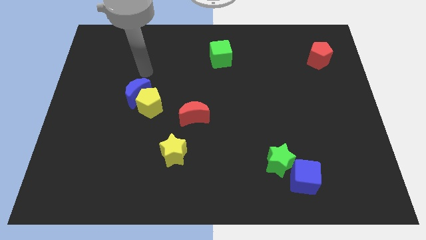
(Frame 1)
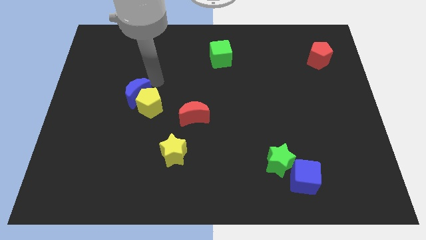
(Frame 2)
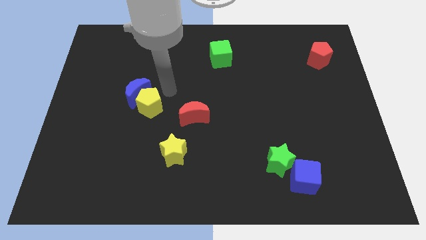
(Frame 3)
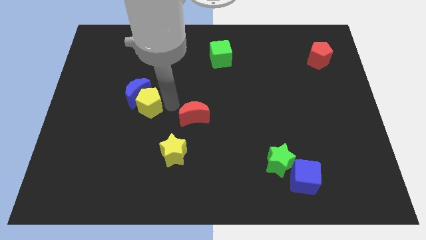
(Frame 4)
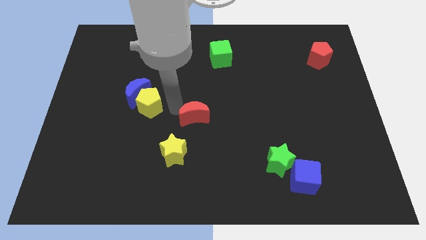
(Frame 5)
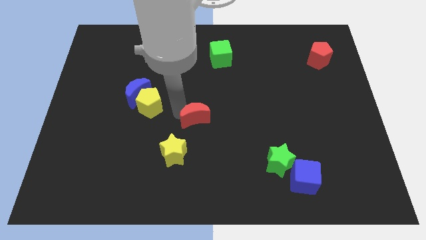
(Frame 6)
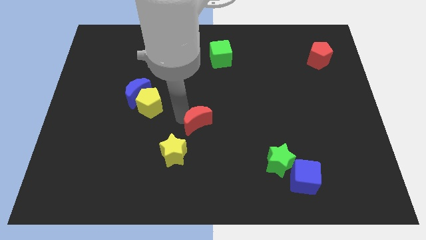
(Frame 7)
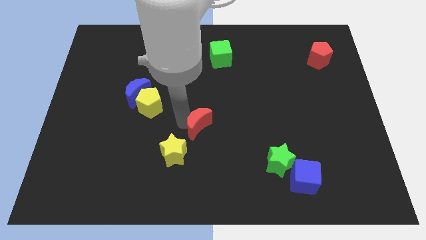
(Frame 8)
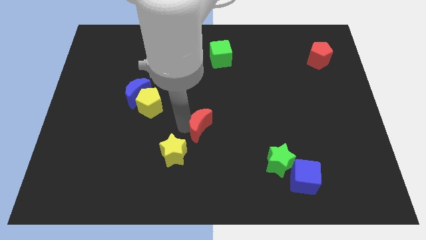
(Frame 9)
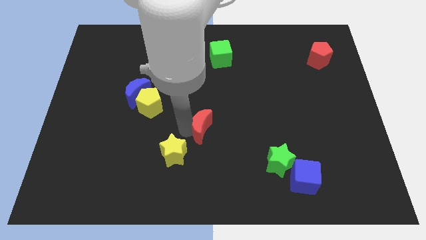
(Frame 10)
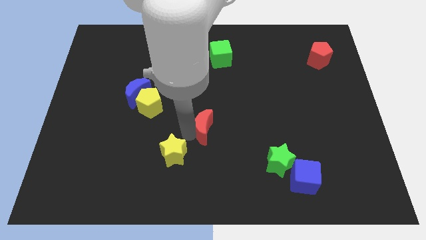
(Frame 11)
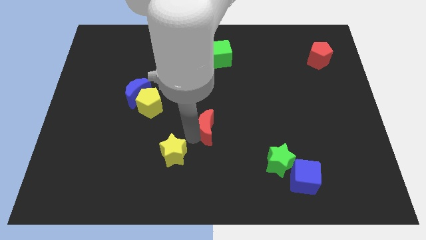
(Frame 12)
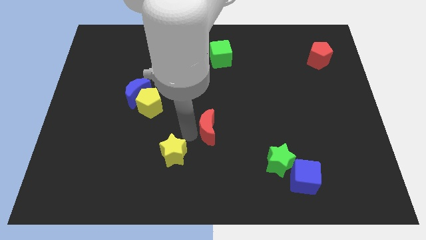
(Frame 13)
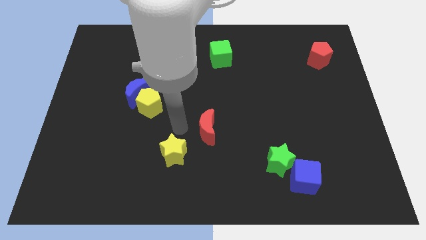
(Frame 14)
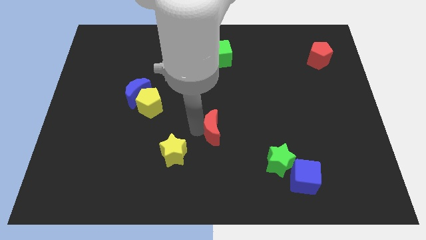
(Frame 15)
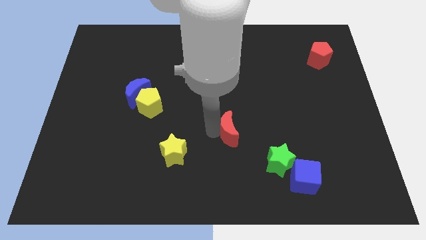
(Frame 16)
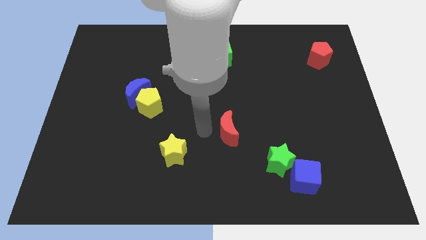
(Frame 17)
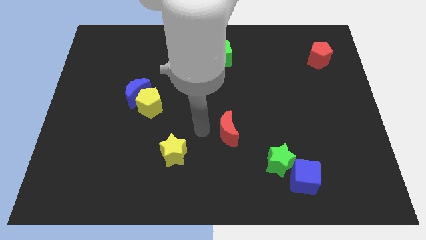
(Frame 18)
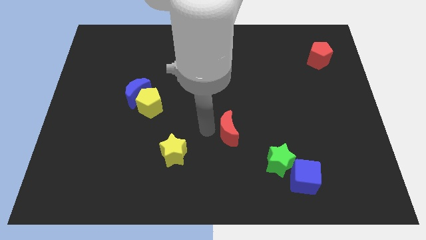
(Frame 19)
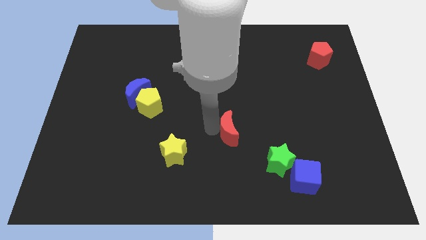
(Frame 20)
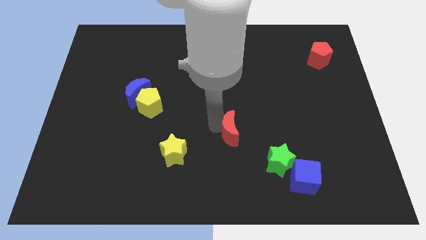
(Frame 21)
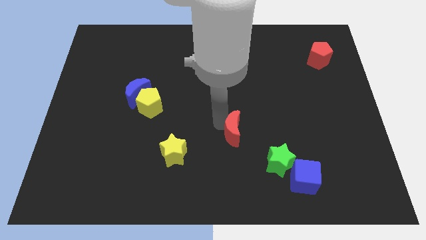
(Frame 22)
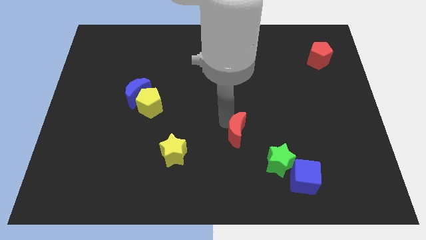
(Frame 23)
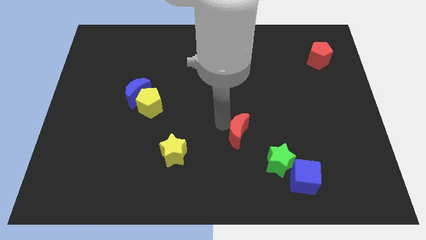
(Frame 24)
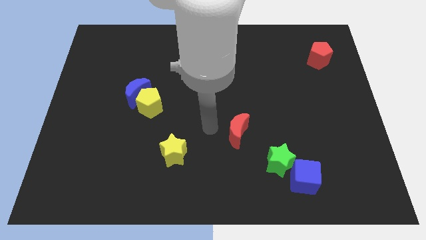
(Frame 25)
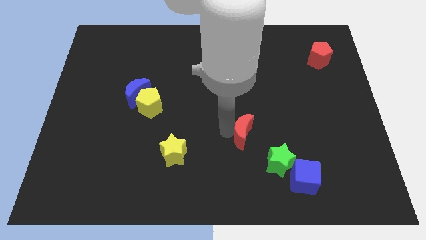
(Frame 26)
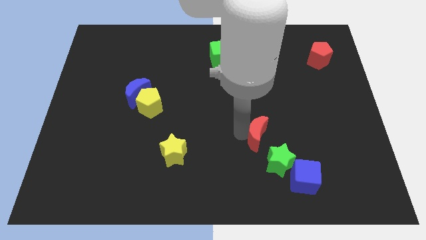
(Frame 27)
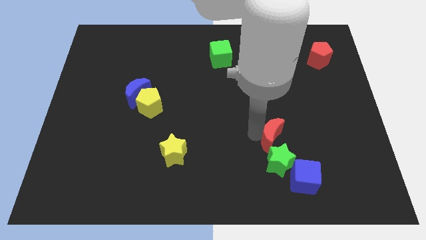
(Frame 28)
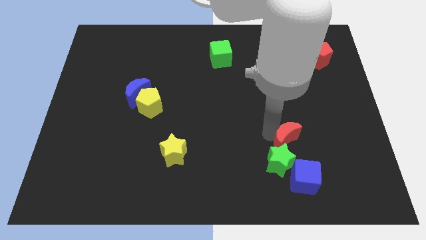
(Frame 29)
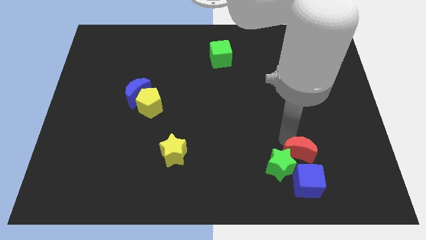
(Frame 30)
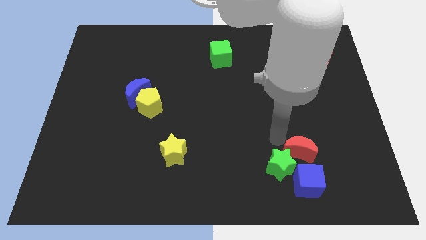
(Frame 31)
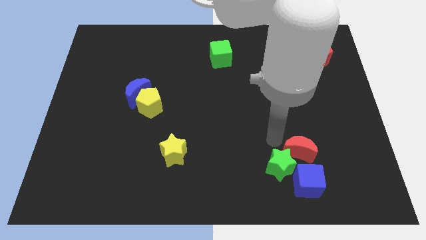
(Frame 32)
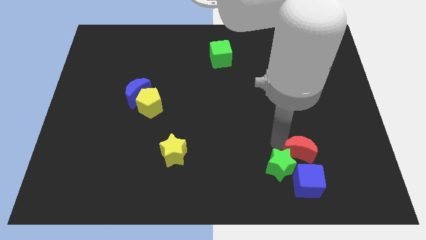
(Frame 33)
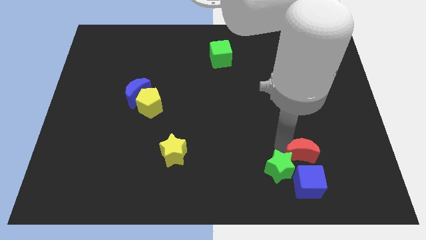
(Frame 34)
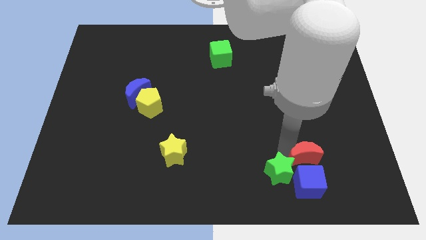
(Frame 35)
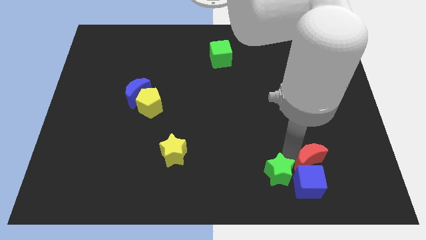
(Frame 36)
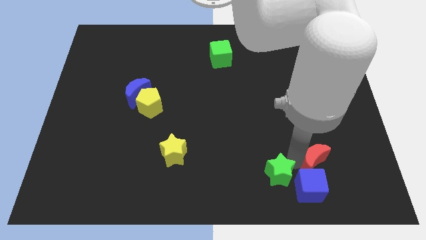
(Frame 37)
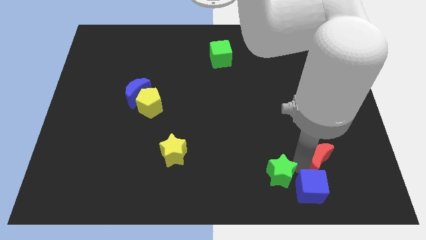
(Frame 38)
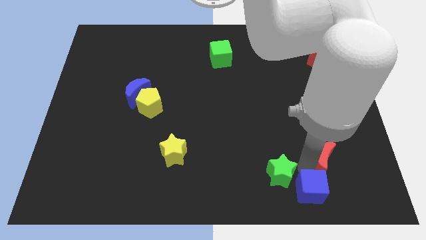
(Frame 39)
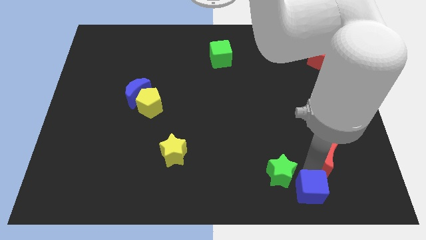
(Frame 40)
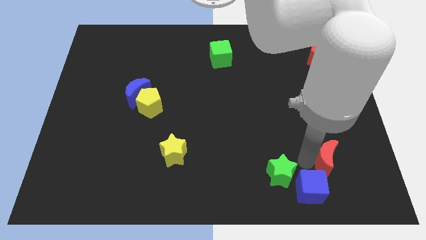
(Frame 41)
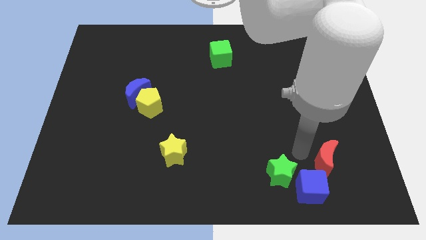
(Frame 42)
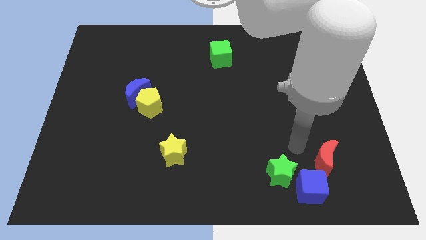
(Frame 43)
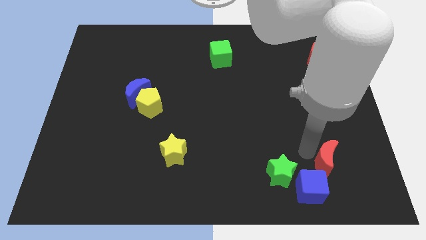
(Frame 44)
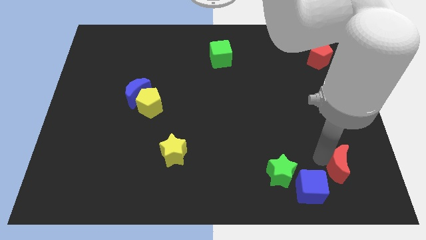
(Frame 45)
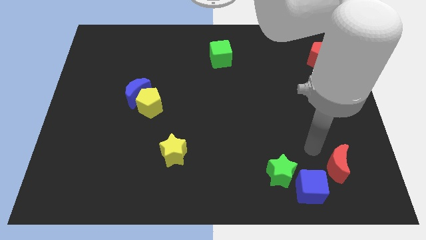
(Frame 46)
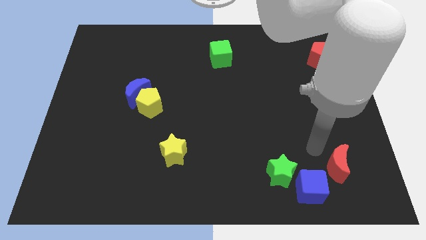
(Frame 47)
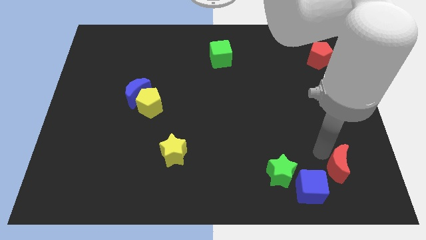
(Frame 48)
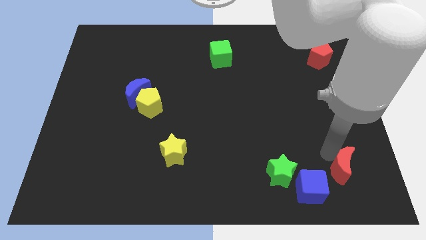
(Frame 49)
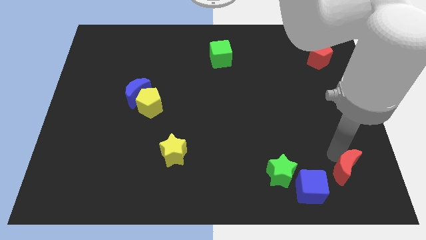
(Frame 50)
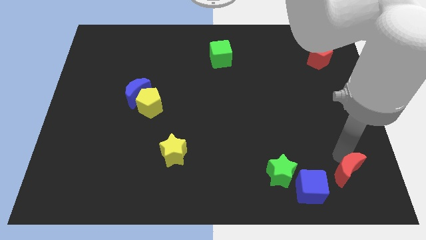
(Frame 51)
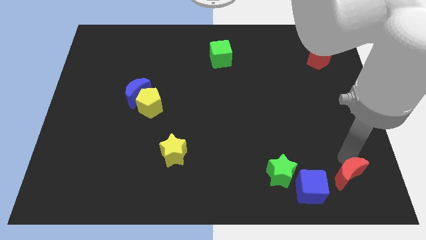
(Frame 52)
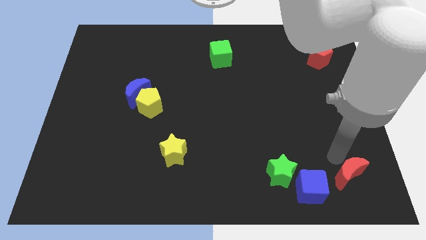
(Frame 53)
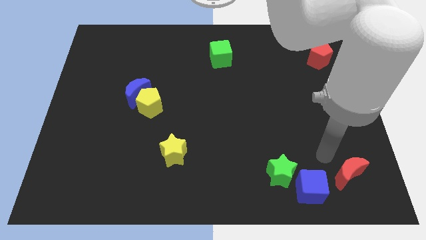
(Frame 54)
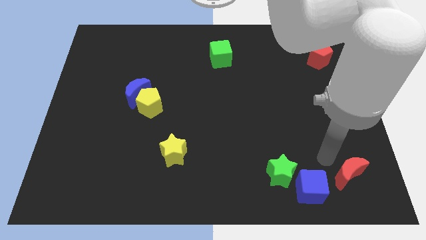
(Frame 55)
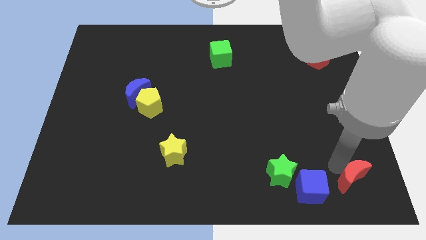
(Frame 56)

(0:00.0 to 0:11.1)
move the red moon to the bottom right
